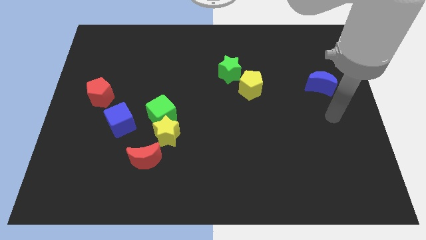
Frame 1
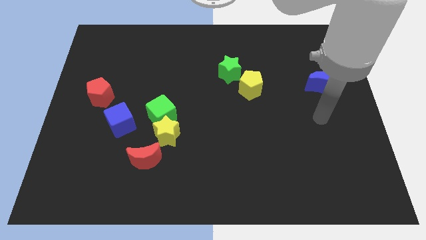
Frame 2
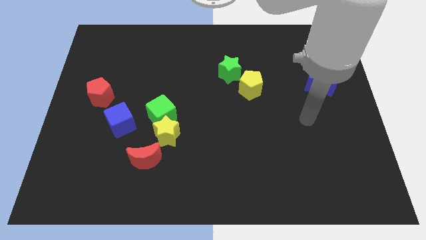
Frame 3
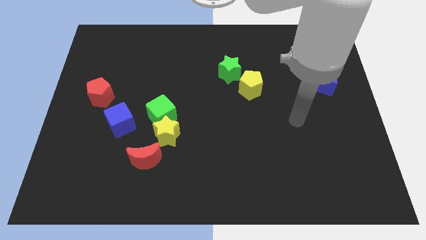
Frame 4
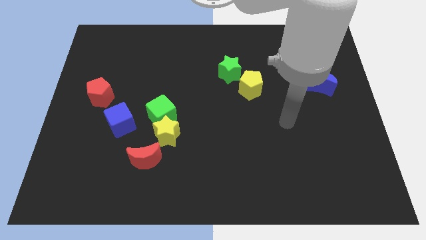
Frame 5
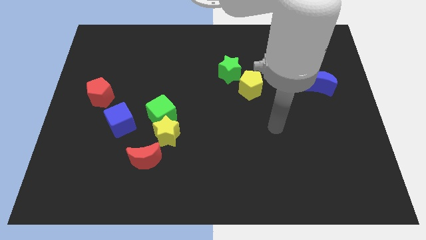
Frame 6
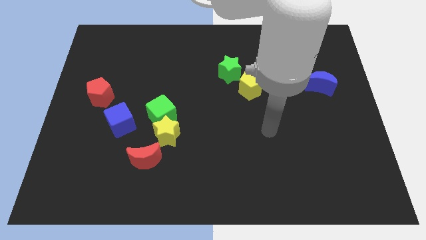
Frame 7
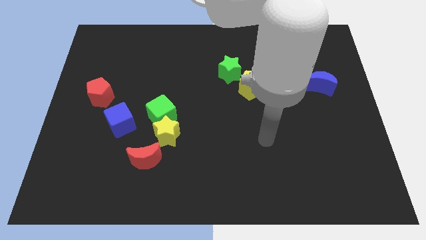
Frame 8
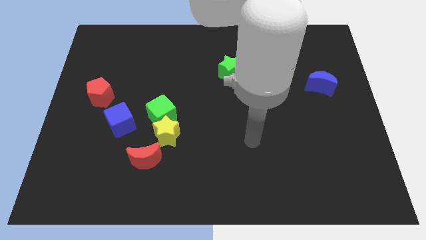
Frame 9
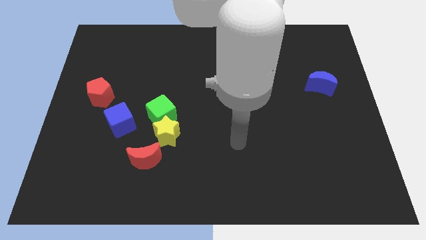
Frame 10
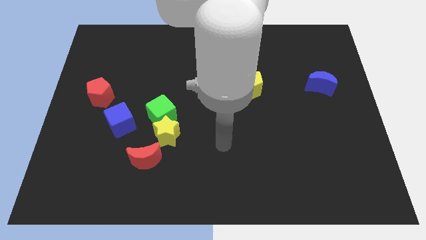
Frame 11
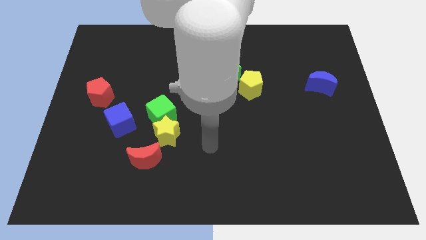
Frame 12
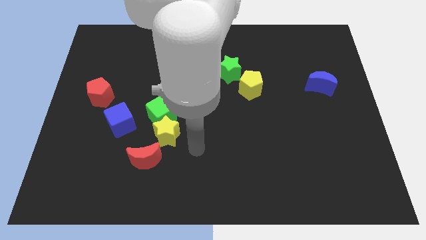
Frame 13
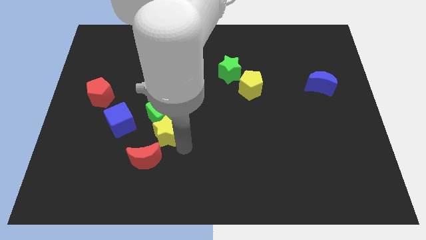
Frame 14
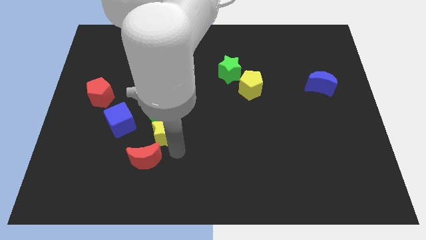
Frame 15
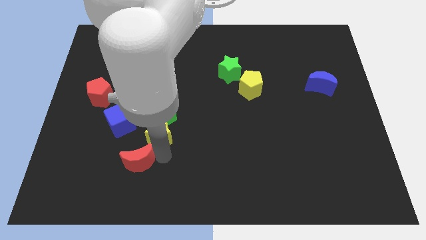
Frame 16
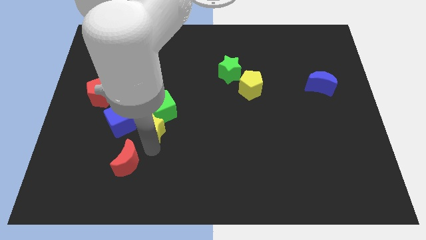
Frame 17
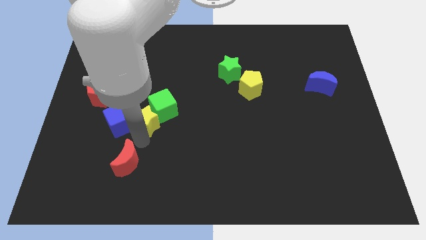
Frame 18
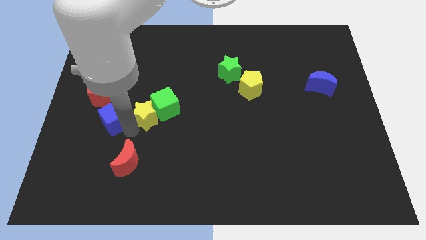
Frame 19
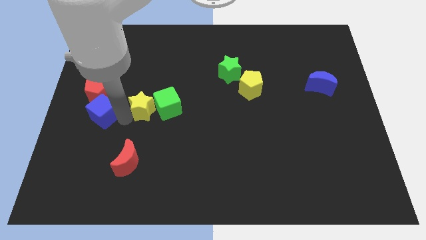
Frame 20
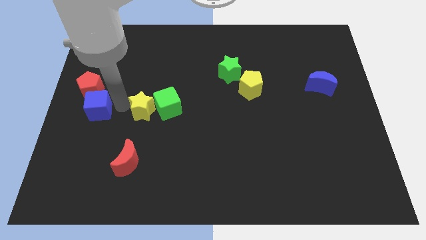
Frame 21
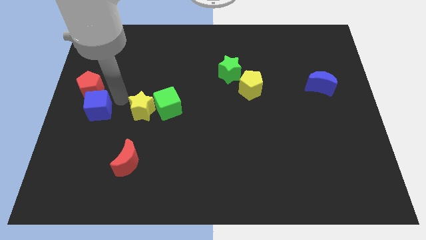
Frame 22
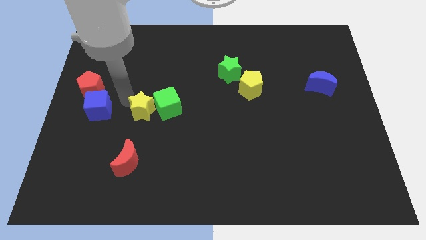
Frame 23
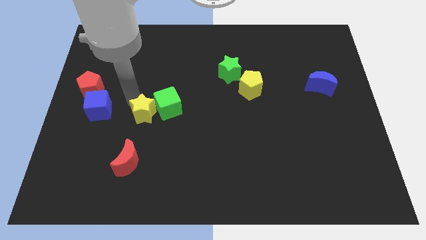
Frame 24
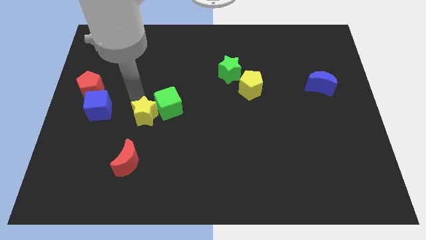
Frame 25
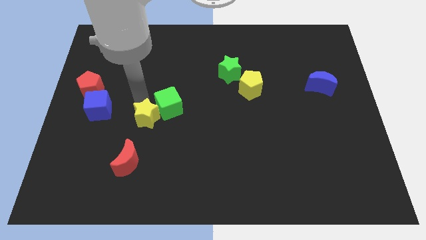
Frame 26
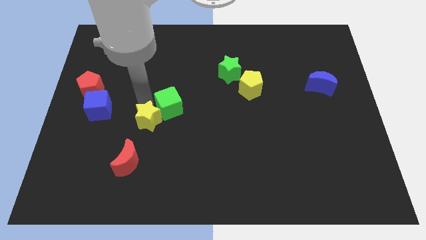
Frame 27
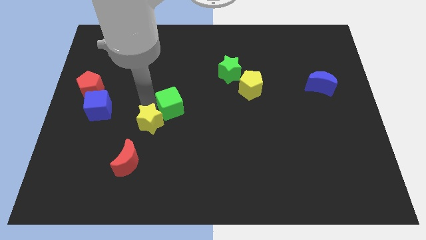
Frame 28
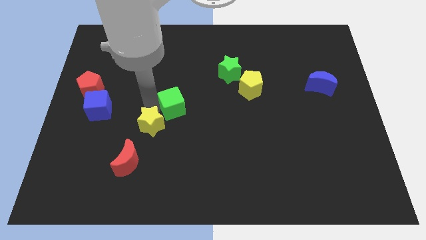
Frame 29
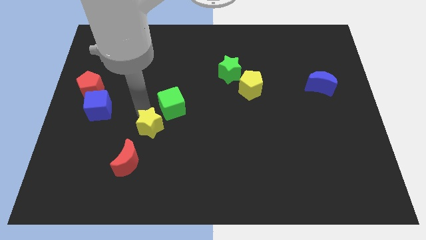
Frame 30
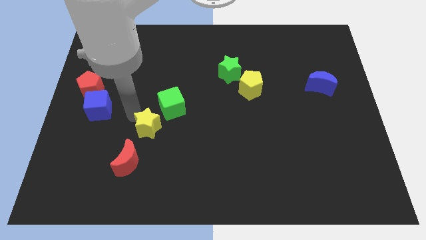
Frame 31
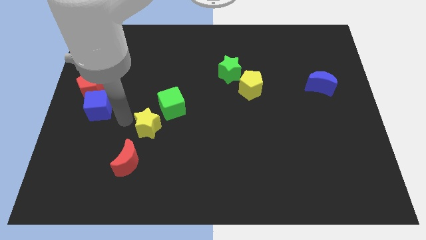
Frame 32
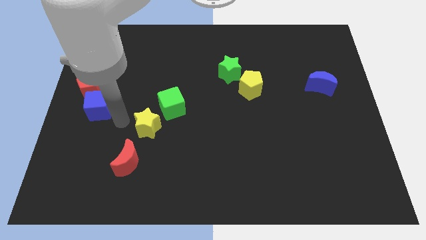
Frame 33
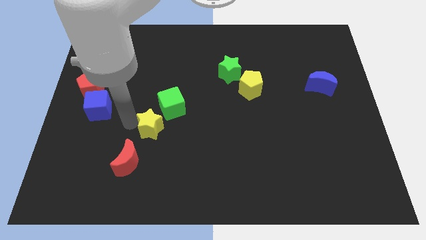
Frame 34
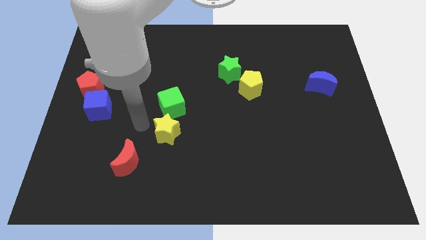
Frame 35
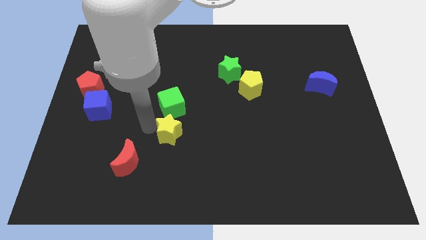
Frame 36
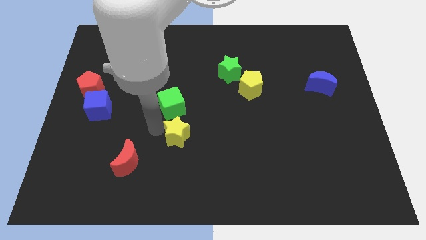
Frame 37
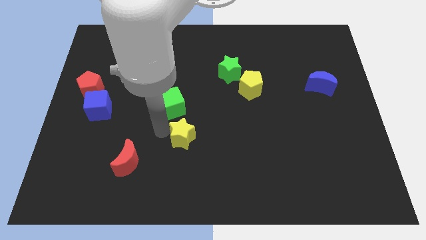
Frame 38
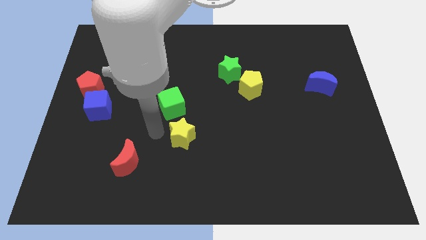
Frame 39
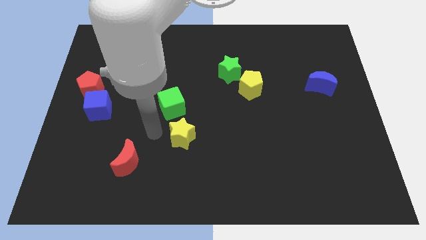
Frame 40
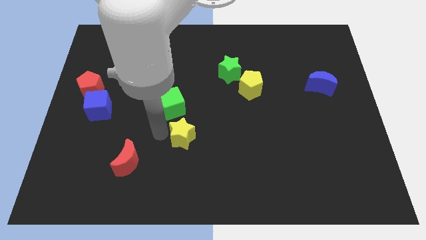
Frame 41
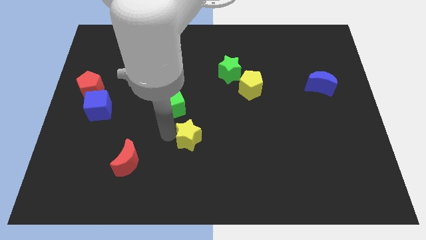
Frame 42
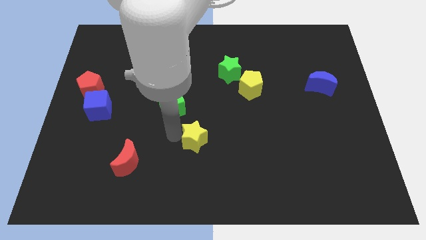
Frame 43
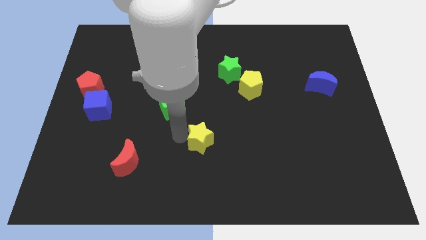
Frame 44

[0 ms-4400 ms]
pull the yellow star apart from the green cube and red moon

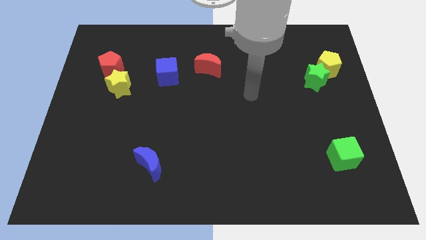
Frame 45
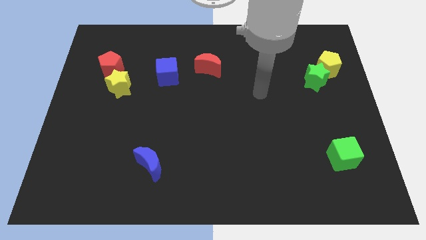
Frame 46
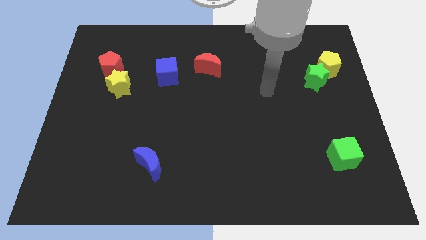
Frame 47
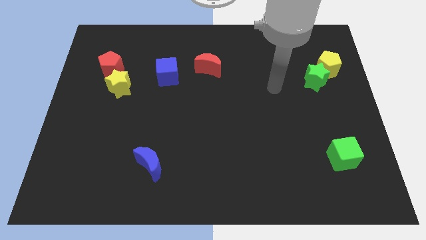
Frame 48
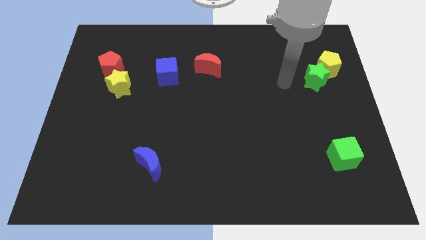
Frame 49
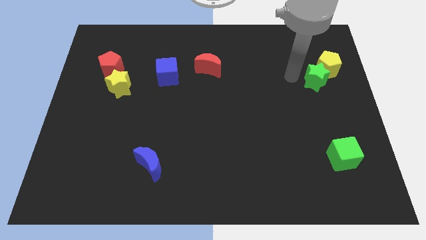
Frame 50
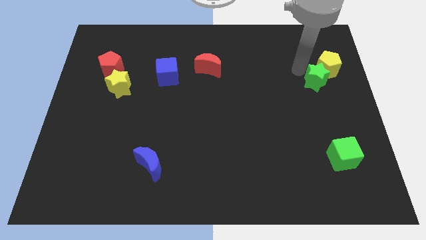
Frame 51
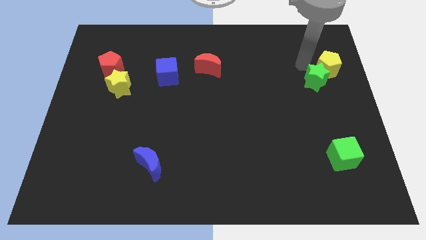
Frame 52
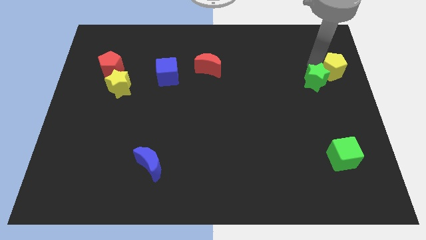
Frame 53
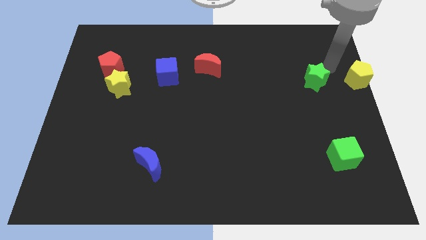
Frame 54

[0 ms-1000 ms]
pull the green star apart from the yellow pentagon

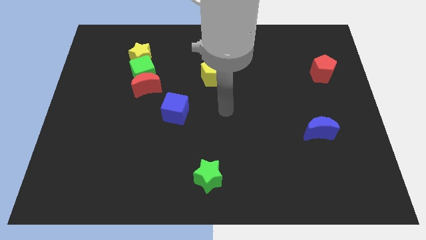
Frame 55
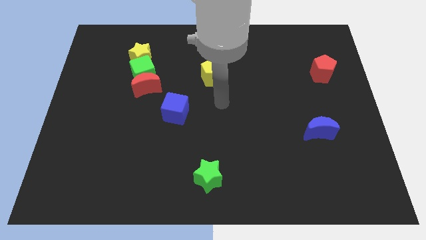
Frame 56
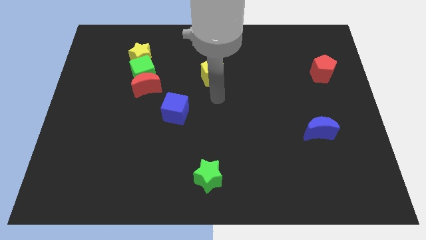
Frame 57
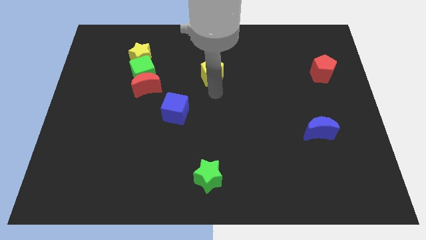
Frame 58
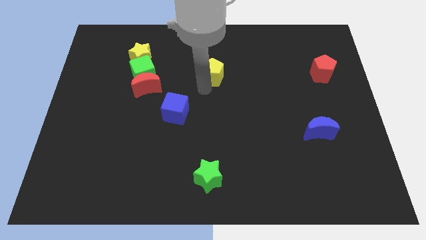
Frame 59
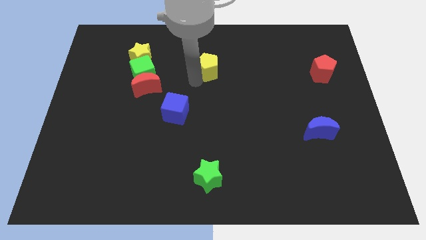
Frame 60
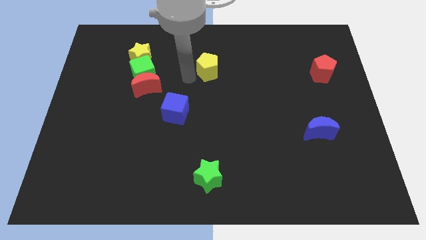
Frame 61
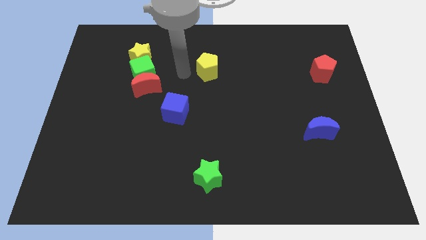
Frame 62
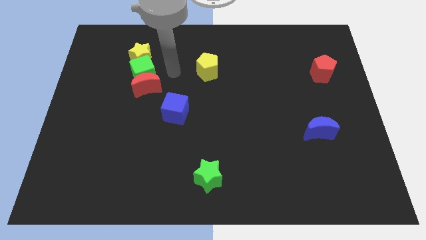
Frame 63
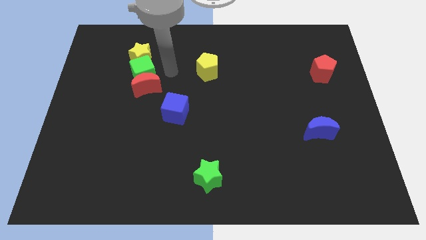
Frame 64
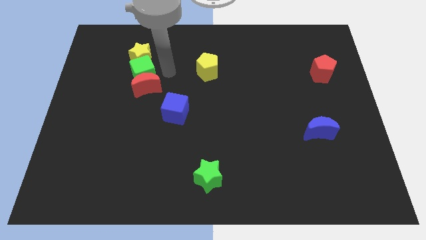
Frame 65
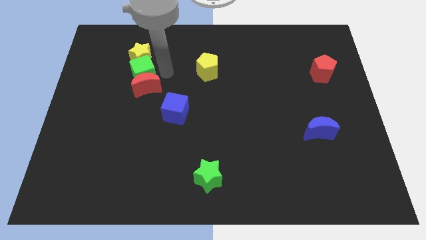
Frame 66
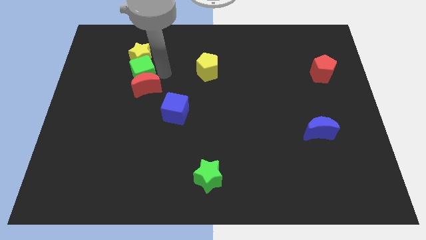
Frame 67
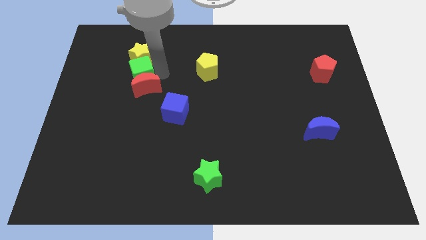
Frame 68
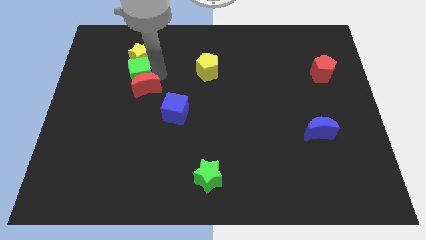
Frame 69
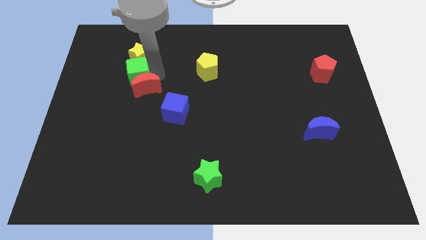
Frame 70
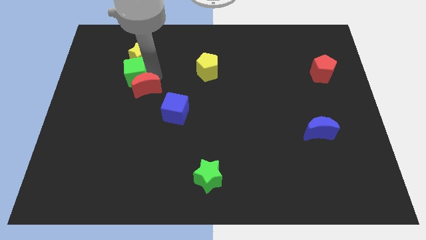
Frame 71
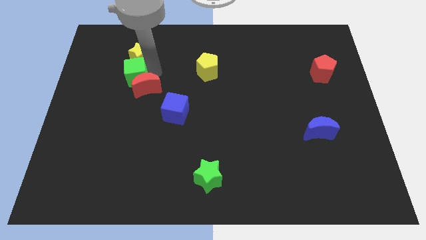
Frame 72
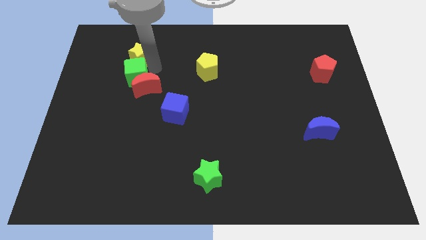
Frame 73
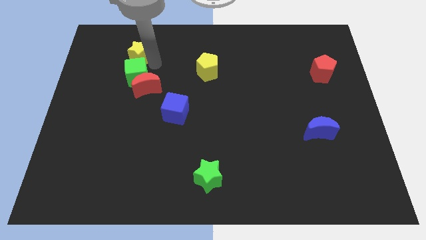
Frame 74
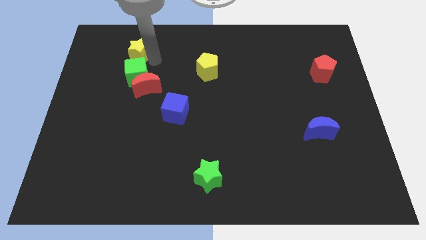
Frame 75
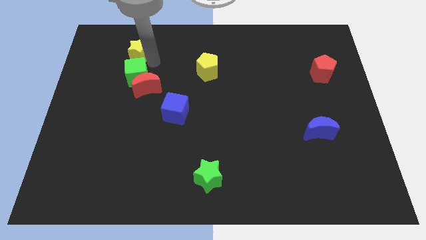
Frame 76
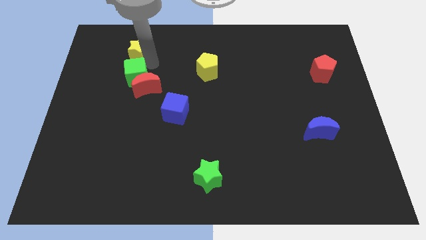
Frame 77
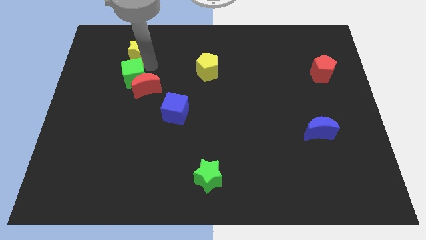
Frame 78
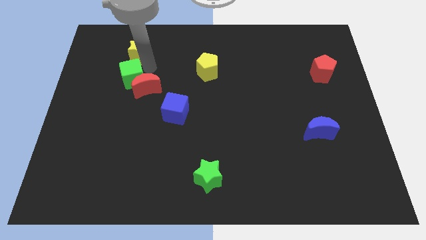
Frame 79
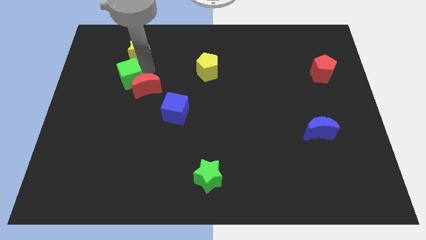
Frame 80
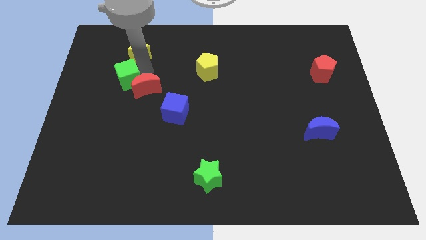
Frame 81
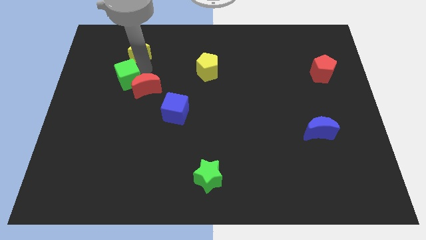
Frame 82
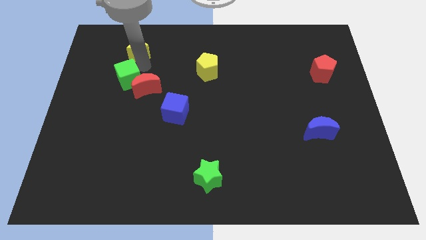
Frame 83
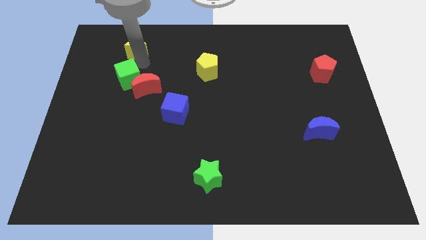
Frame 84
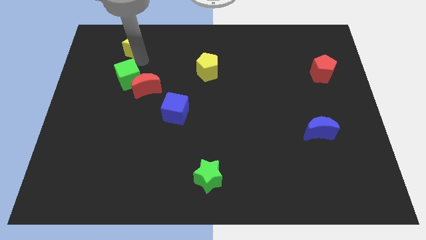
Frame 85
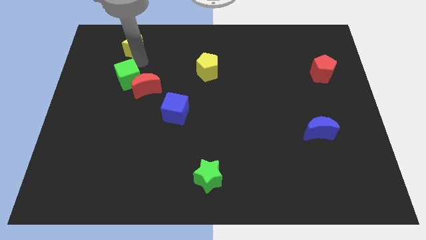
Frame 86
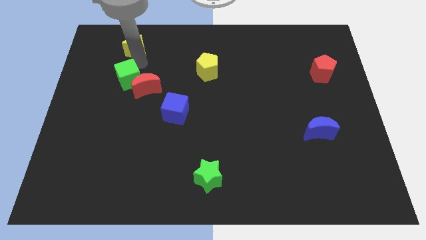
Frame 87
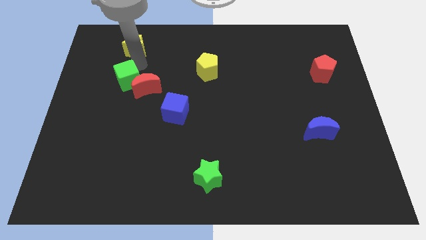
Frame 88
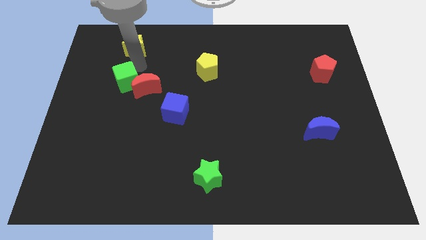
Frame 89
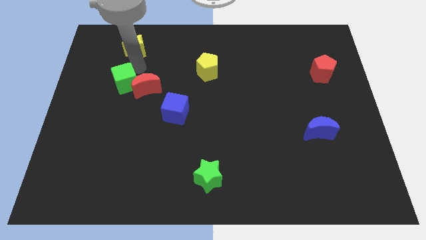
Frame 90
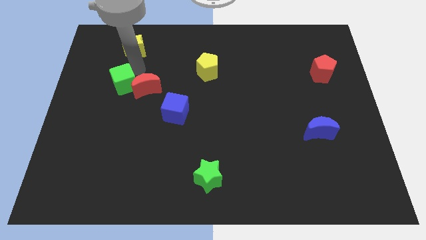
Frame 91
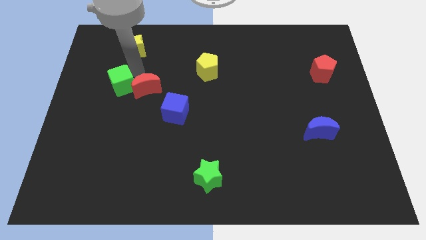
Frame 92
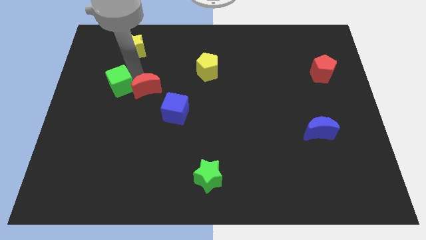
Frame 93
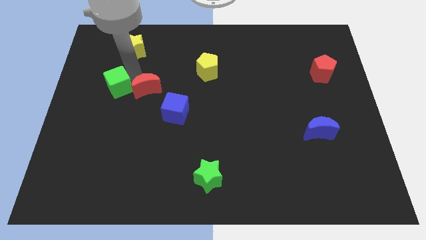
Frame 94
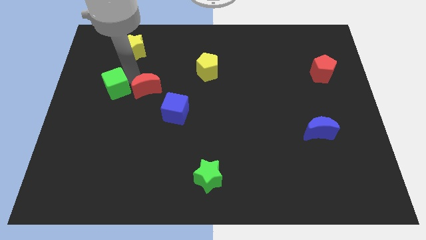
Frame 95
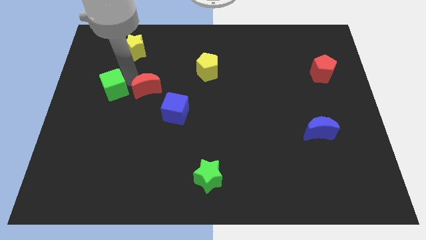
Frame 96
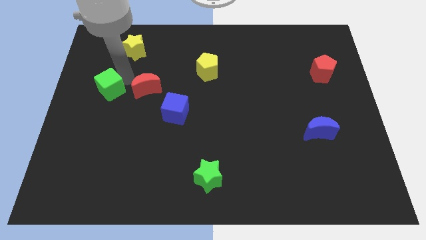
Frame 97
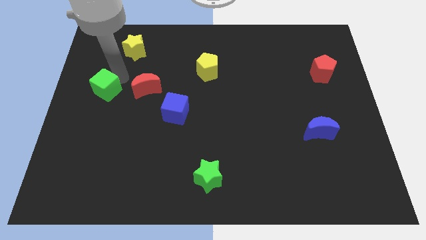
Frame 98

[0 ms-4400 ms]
pull the green cube apart from the red moon and yellow star
